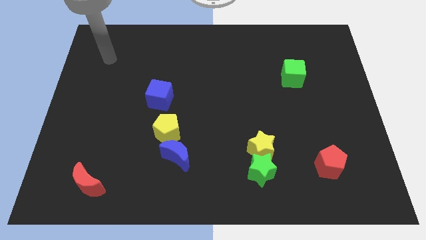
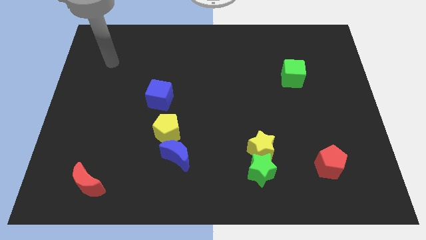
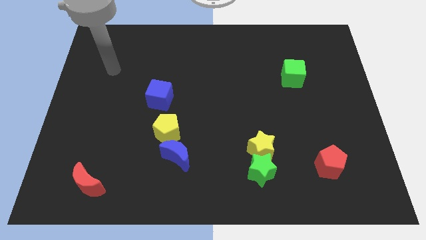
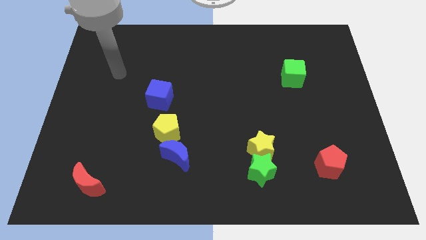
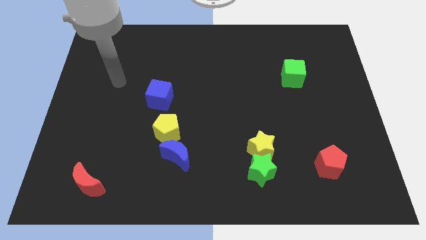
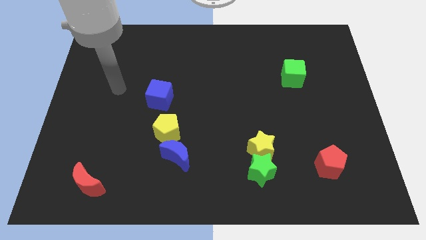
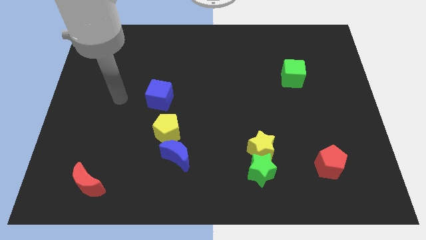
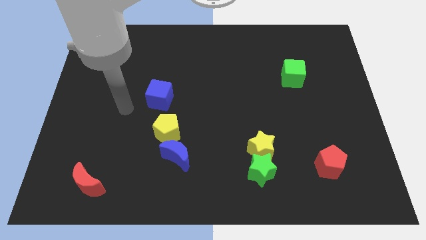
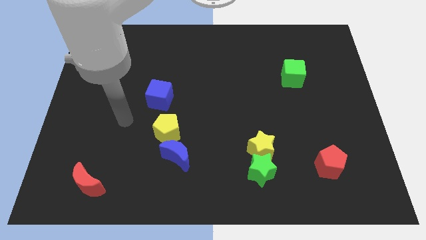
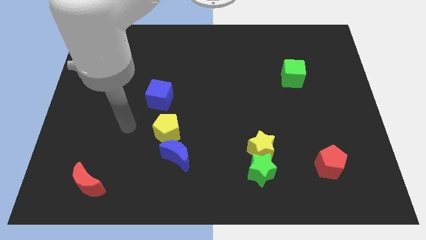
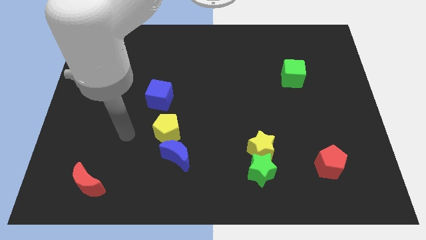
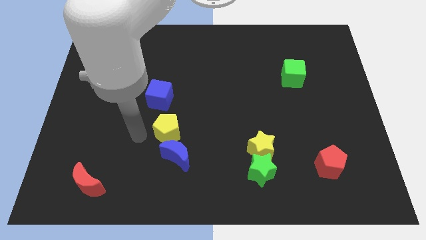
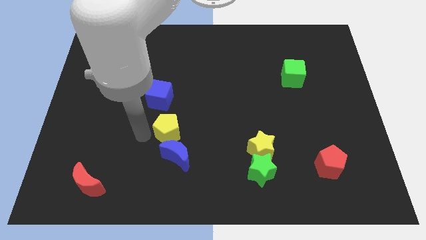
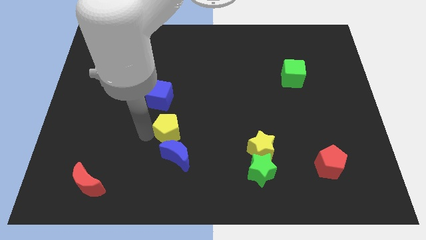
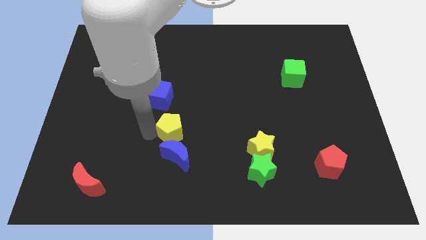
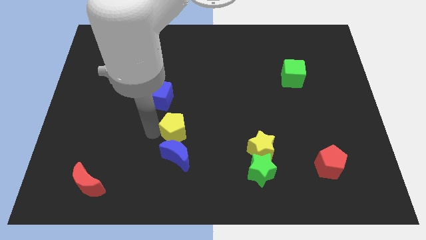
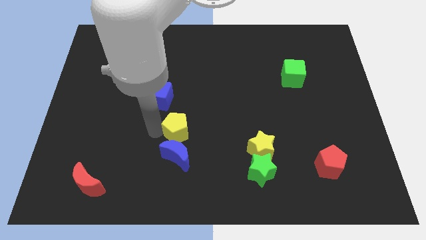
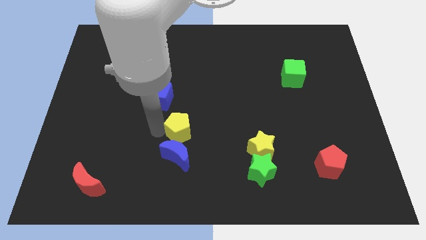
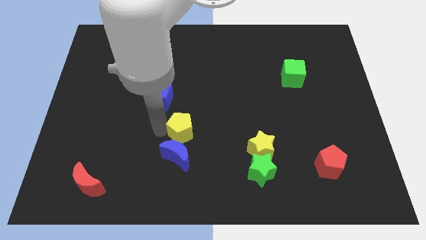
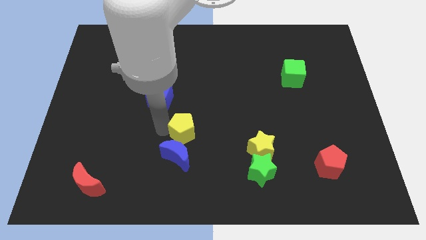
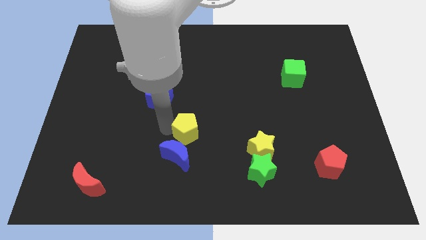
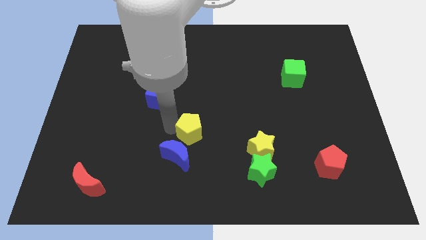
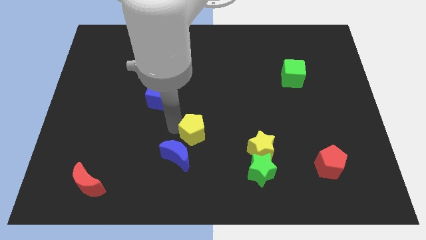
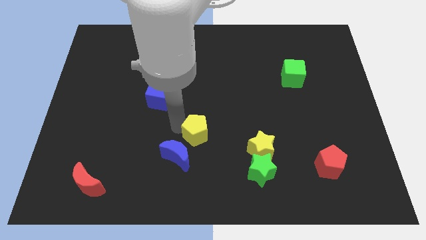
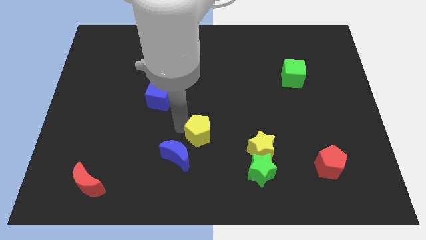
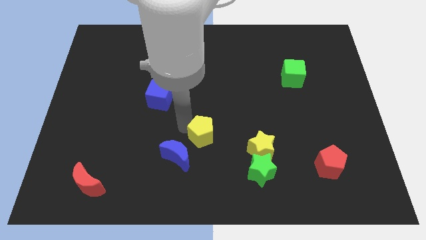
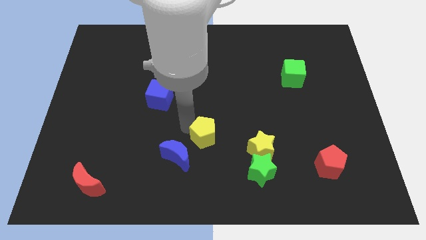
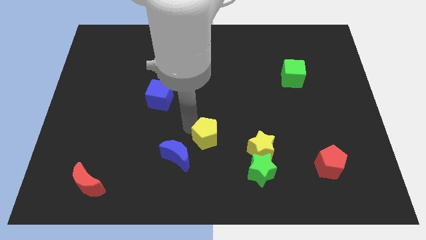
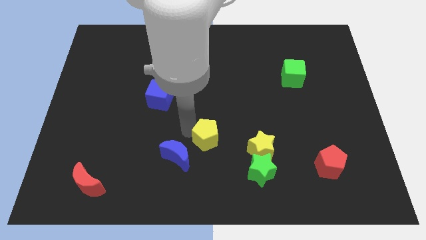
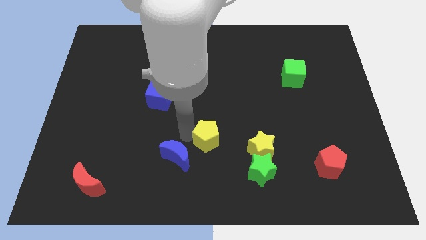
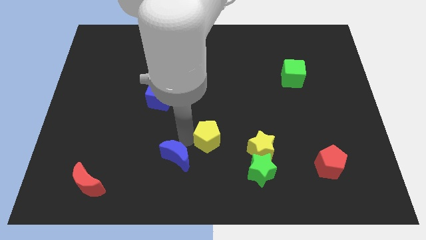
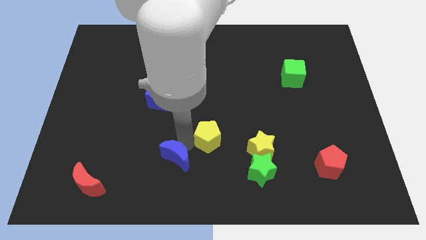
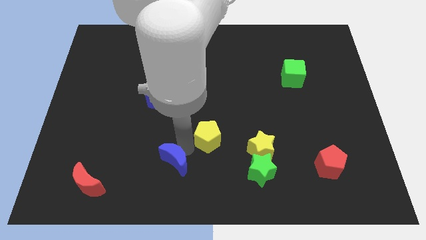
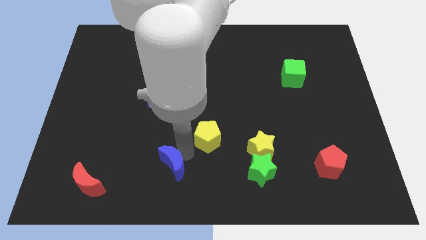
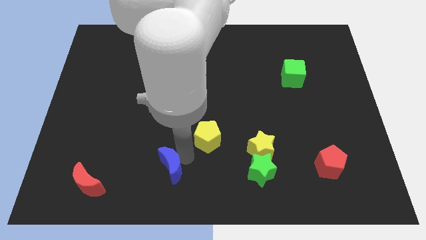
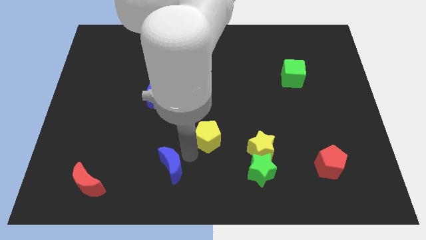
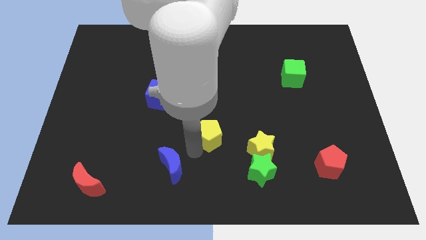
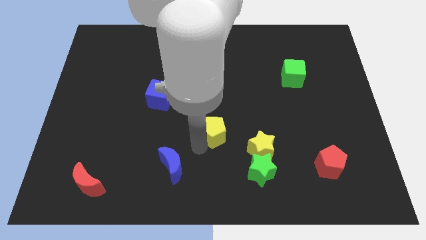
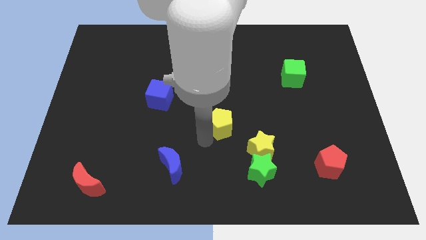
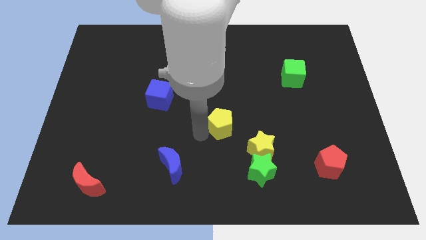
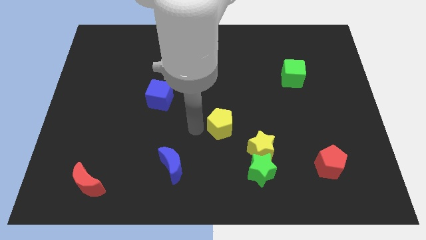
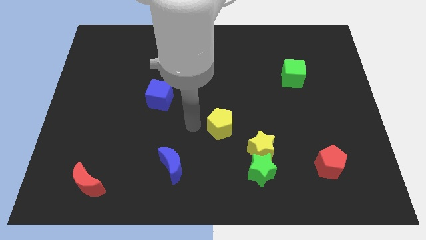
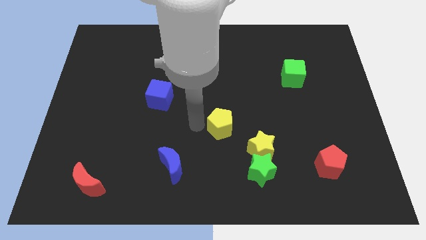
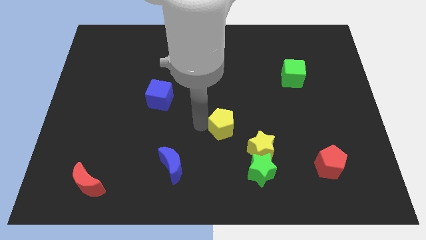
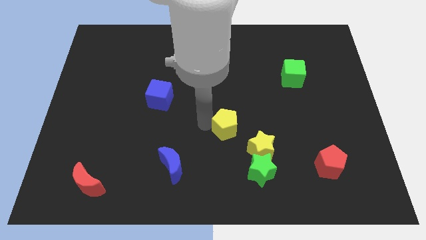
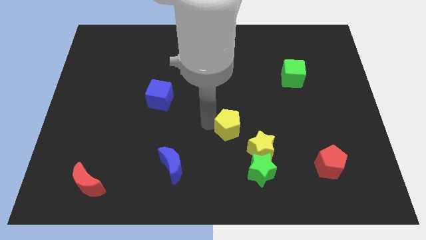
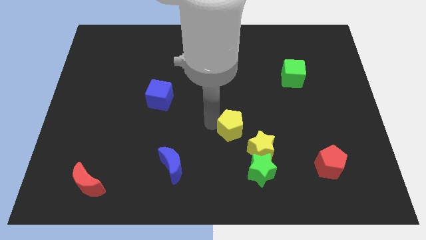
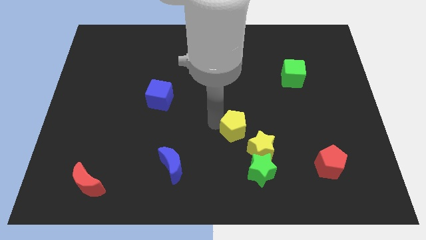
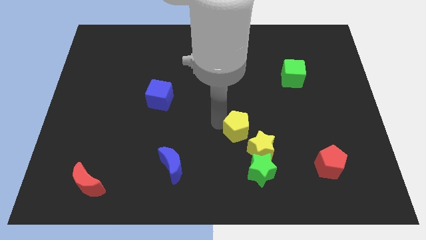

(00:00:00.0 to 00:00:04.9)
push the yellow pentagon above the green star

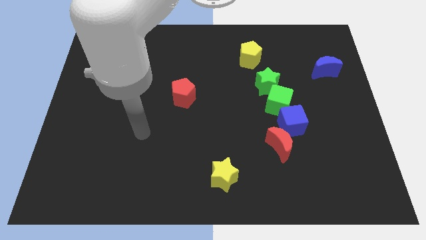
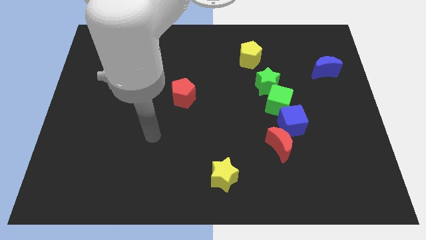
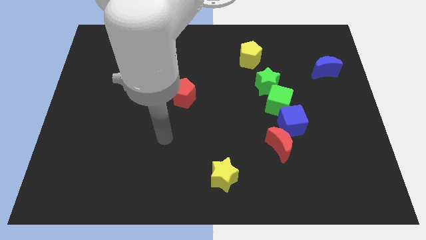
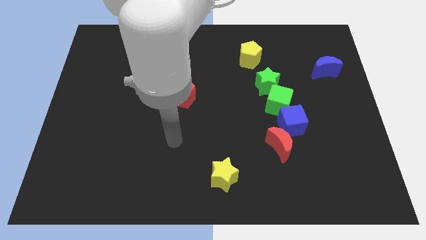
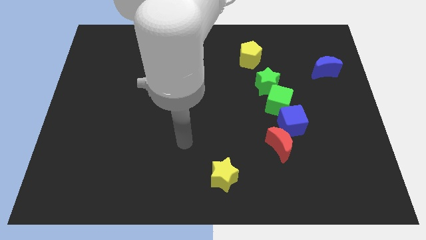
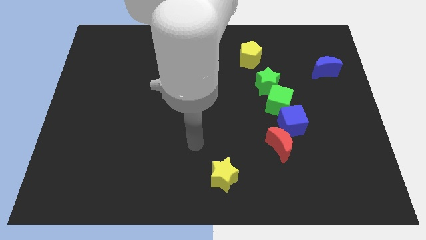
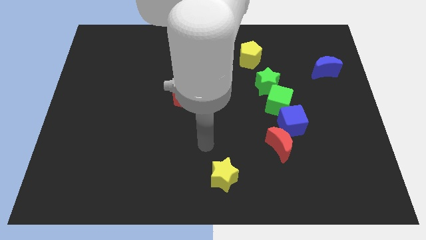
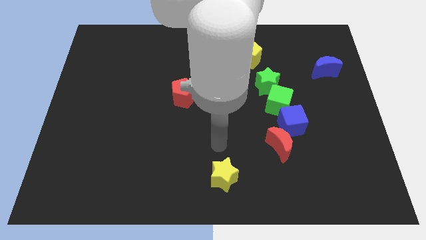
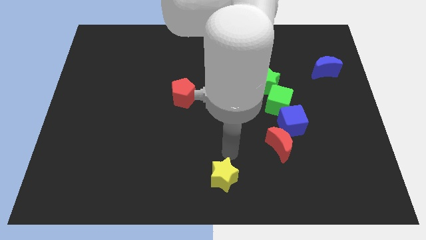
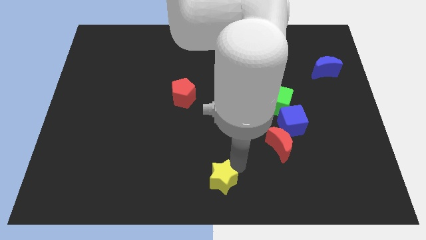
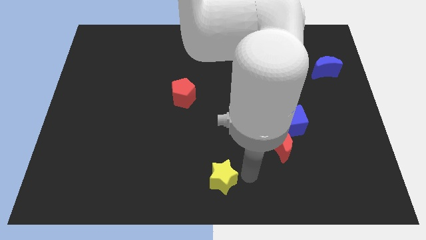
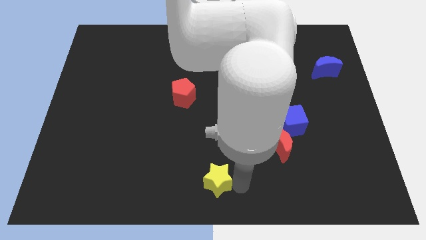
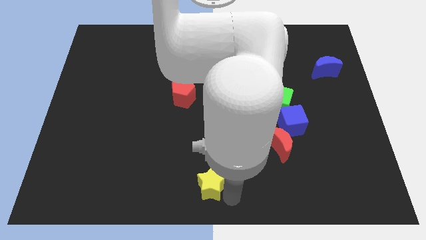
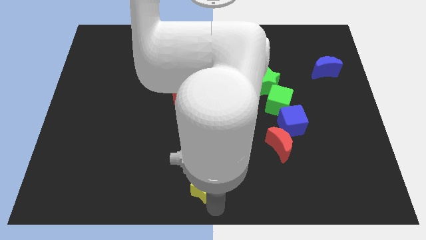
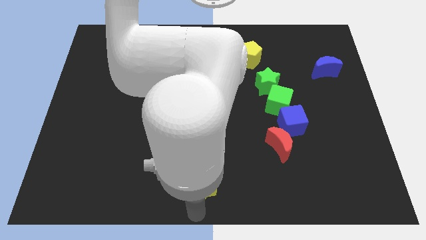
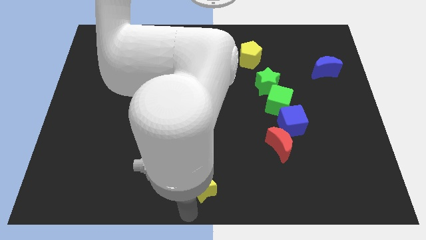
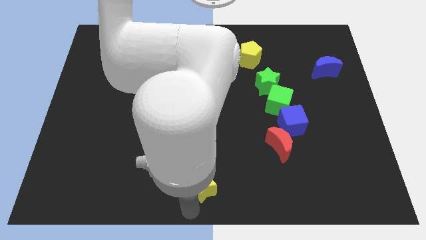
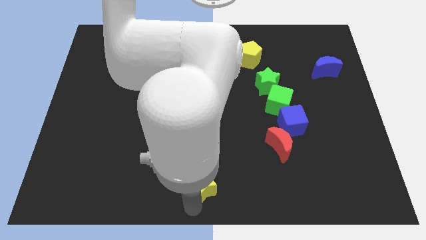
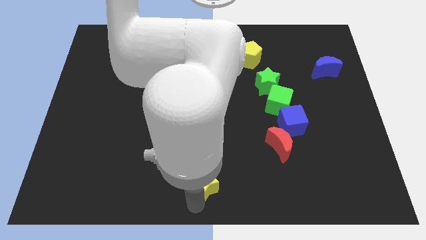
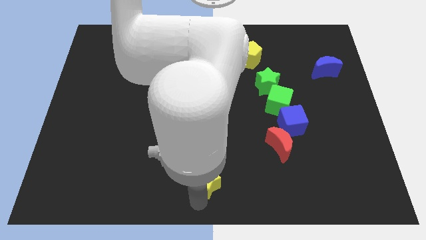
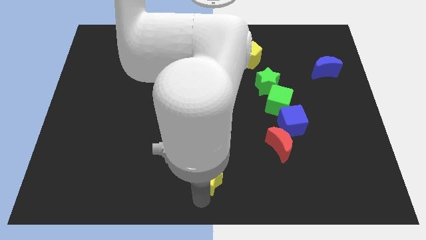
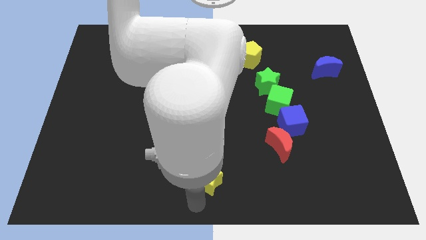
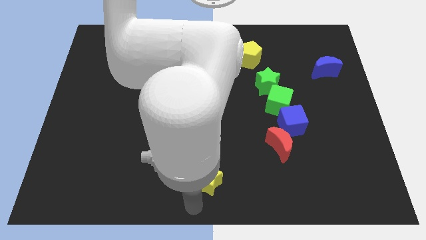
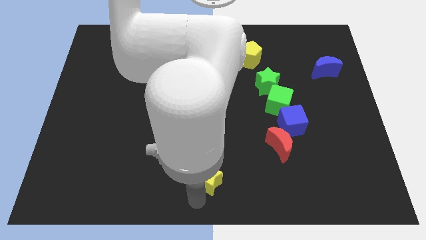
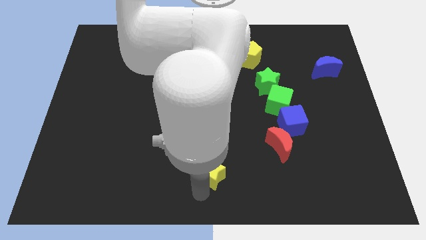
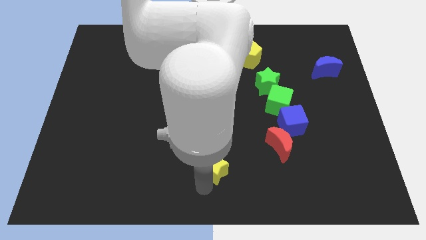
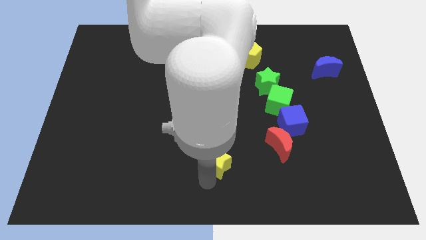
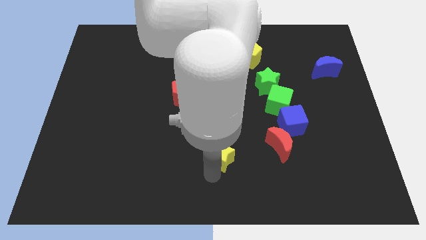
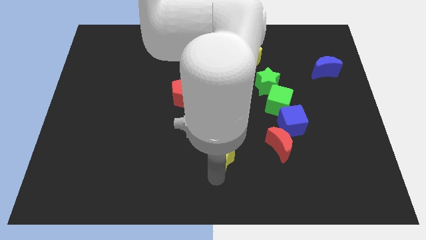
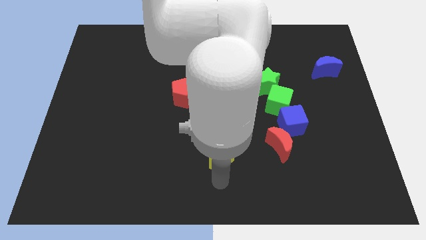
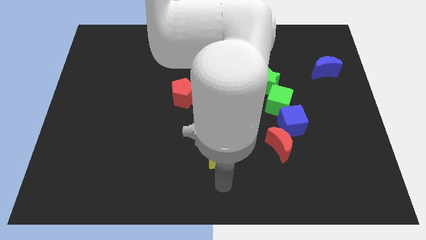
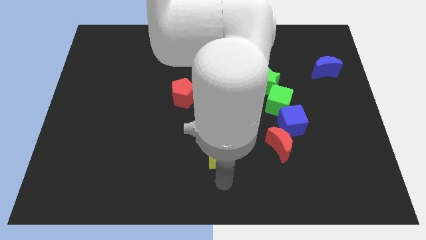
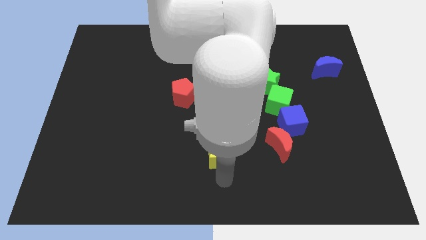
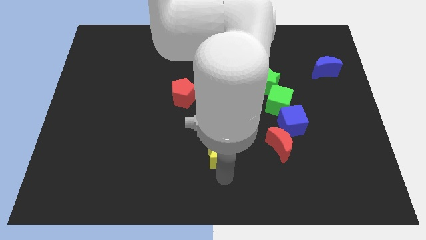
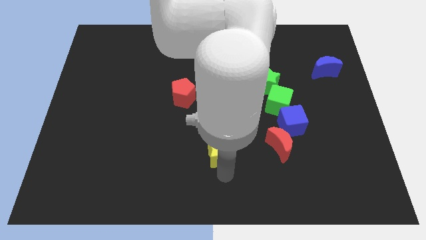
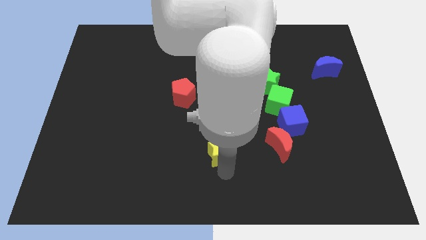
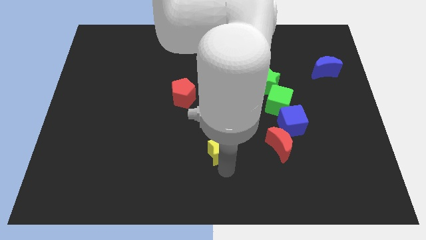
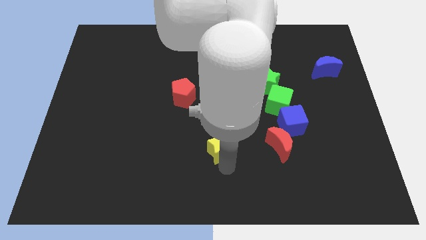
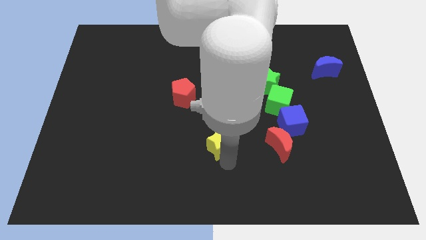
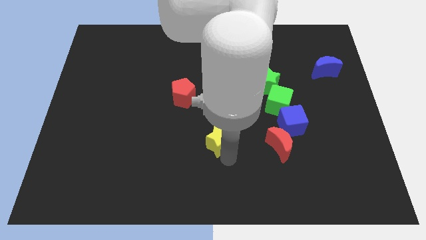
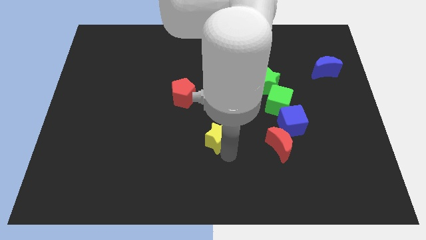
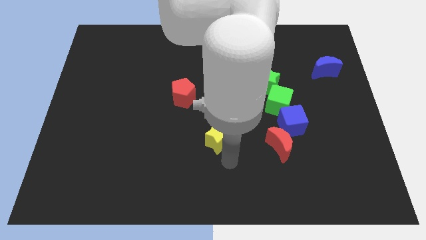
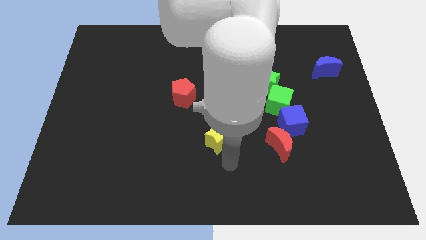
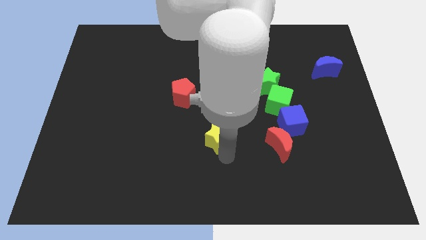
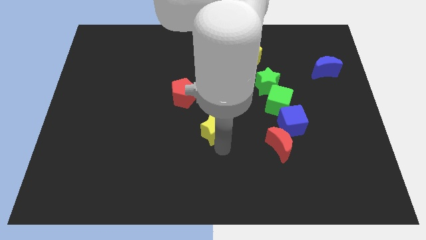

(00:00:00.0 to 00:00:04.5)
push the yellow star to the bottom right of the red pentagon
